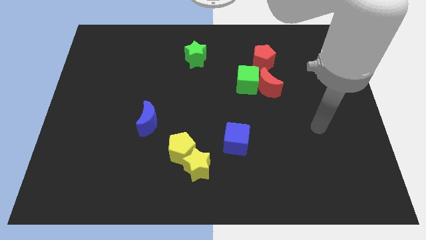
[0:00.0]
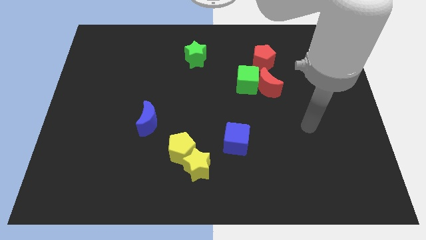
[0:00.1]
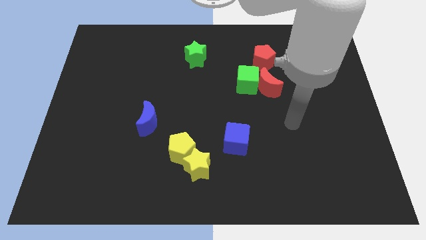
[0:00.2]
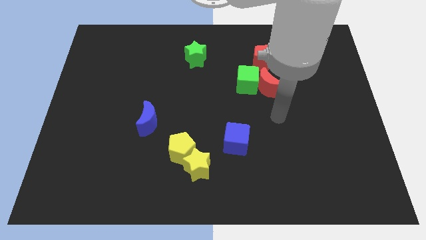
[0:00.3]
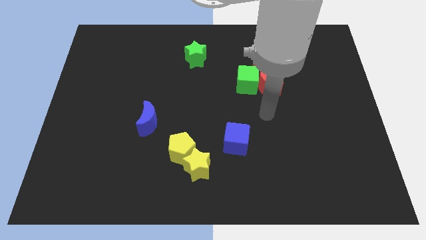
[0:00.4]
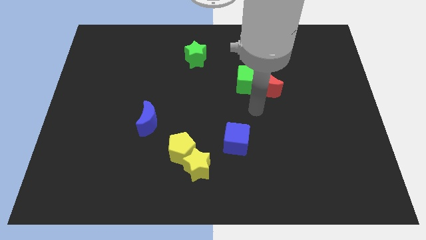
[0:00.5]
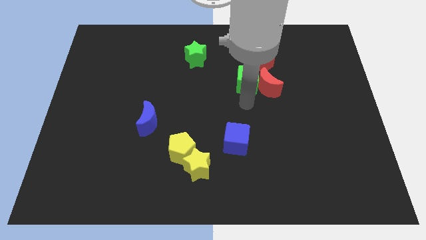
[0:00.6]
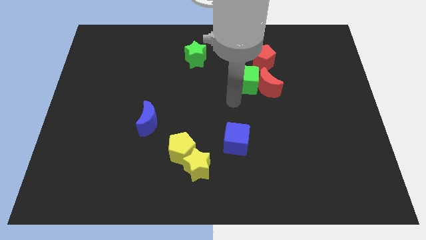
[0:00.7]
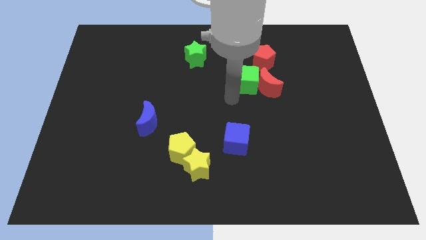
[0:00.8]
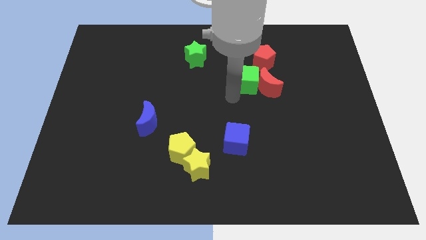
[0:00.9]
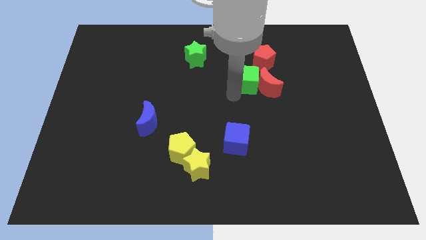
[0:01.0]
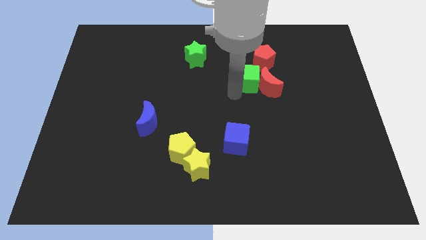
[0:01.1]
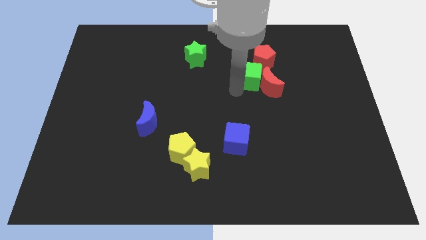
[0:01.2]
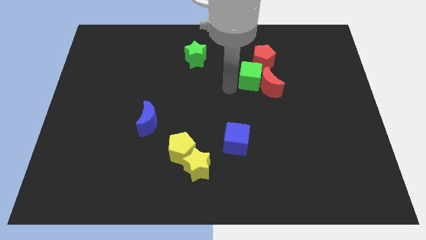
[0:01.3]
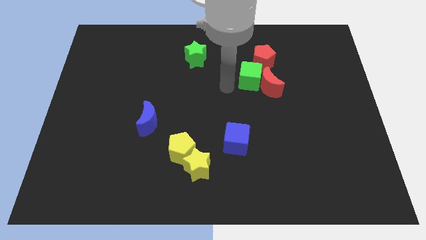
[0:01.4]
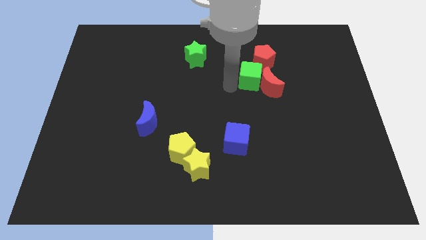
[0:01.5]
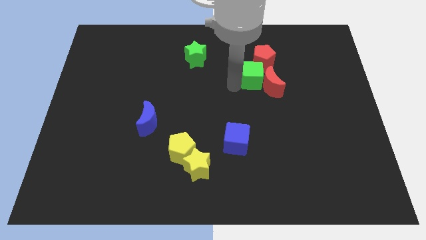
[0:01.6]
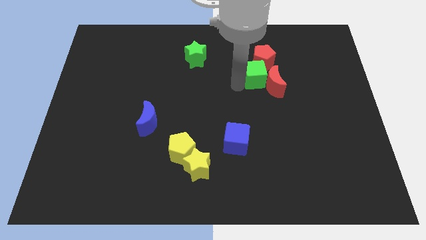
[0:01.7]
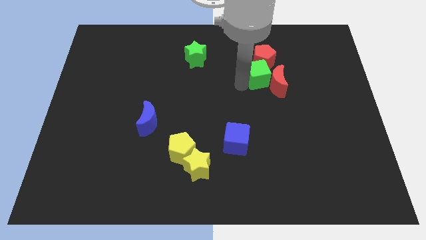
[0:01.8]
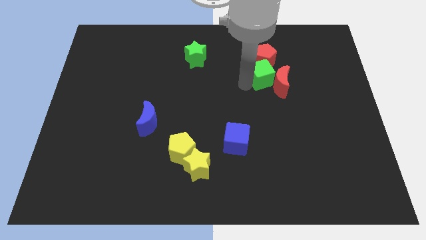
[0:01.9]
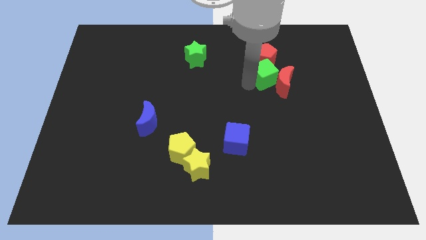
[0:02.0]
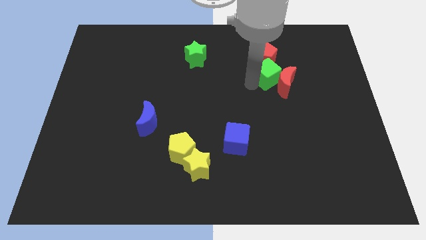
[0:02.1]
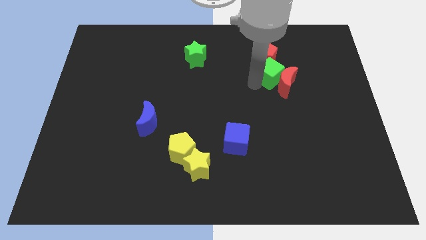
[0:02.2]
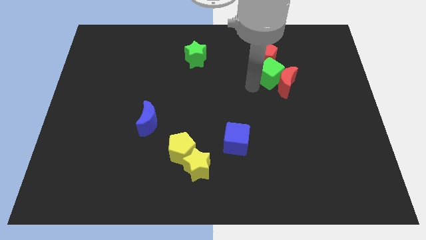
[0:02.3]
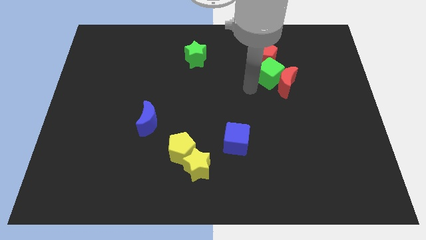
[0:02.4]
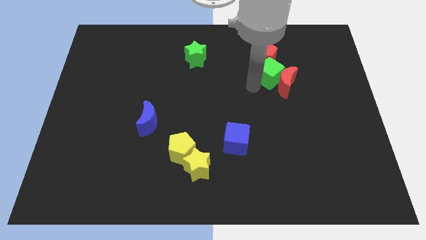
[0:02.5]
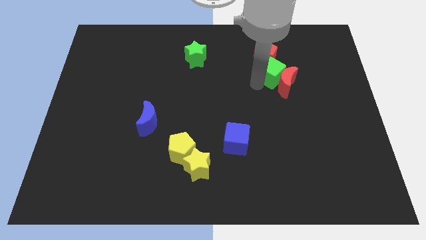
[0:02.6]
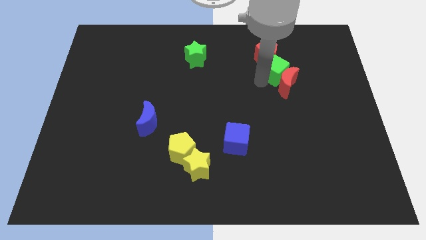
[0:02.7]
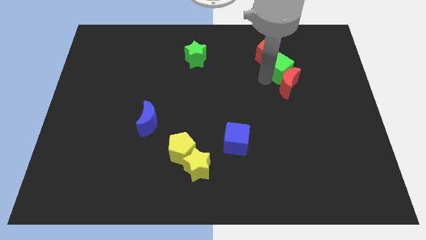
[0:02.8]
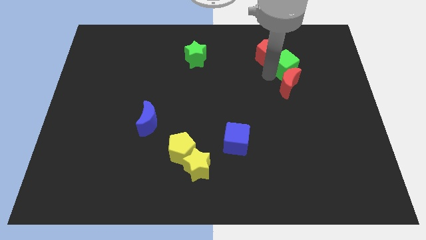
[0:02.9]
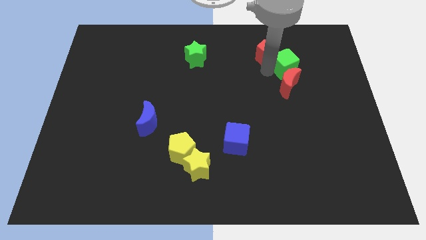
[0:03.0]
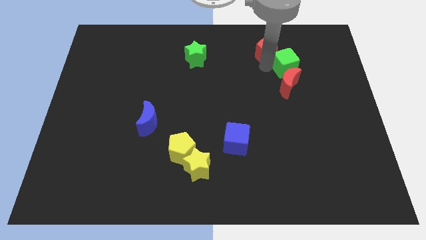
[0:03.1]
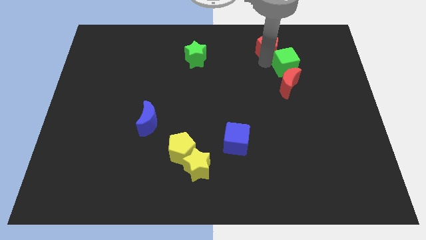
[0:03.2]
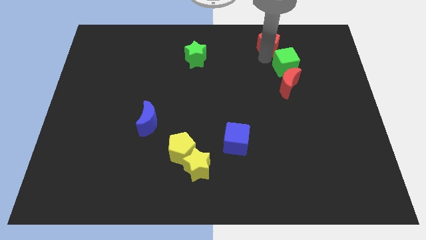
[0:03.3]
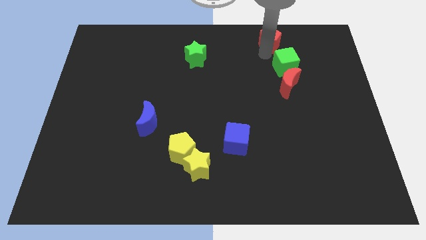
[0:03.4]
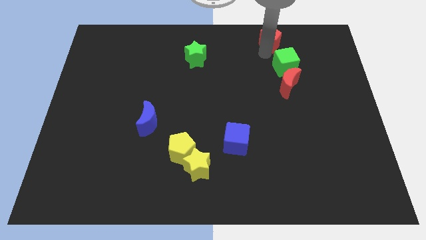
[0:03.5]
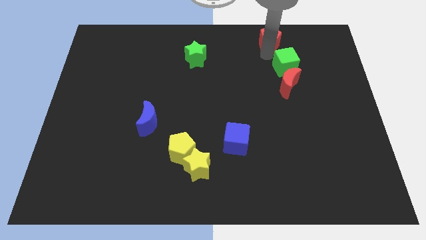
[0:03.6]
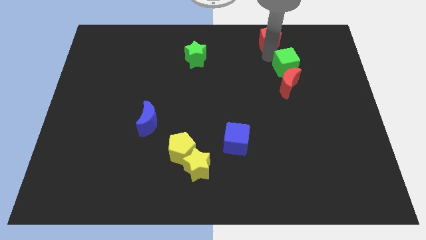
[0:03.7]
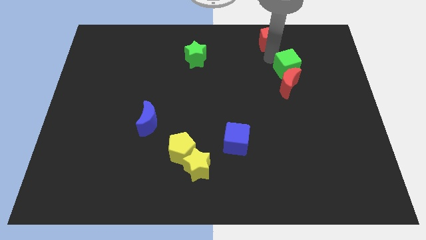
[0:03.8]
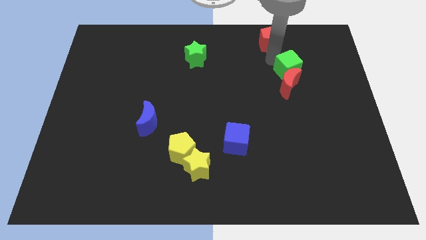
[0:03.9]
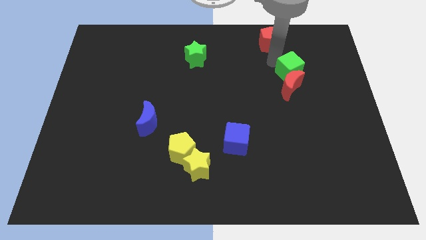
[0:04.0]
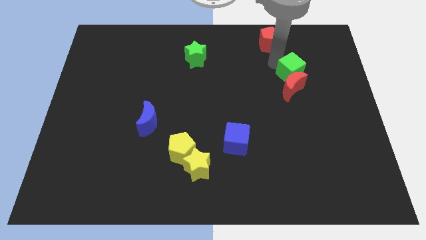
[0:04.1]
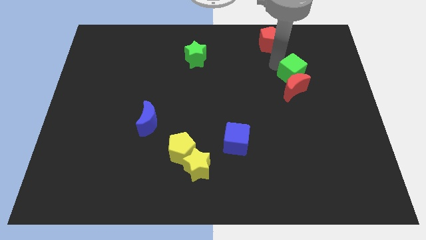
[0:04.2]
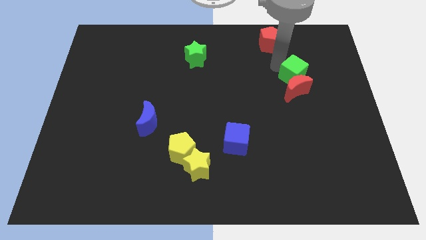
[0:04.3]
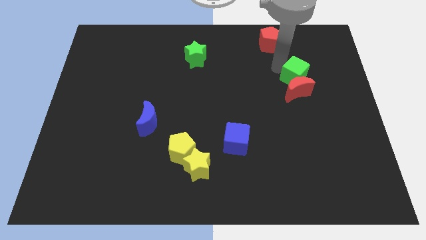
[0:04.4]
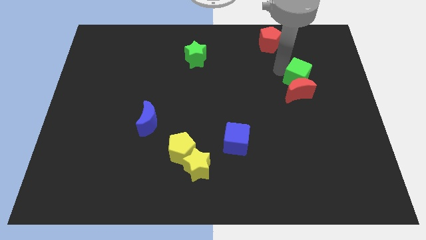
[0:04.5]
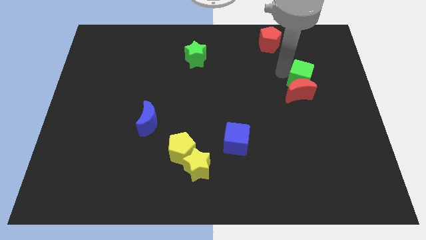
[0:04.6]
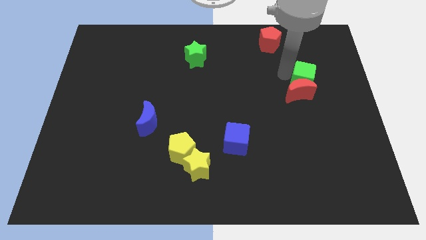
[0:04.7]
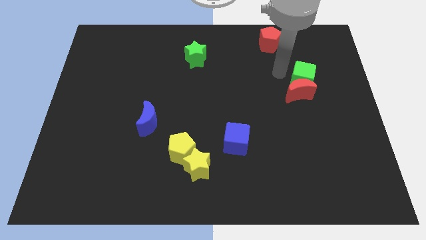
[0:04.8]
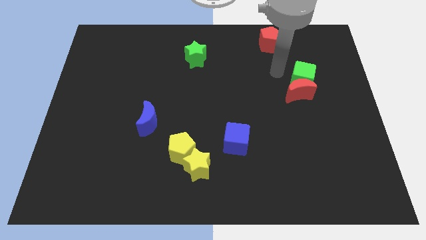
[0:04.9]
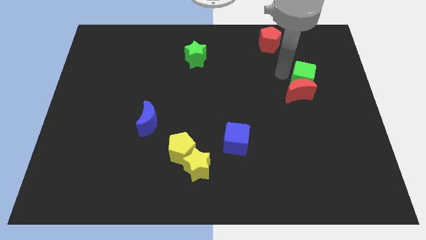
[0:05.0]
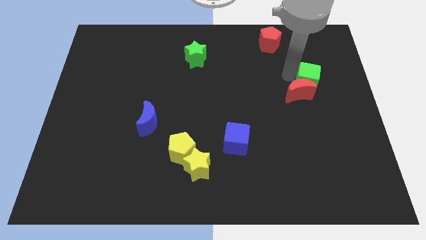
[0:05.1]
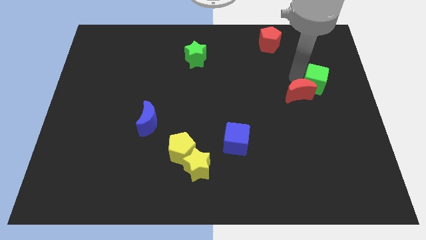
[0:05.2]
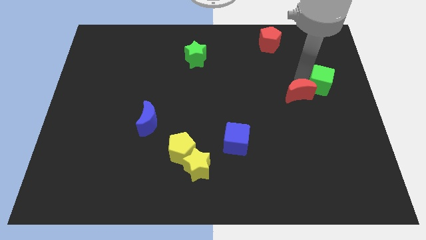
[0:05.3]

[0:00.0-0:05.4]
push the green cube to the right side of the board

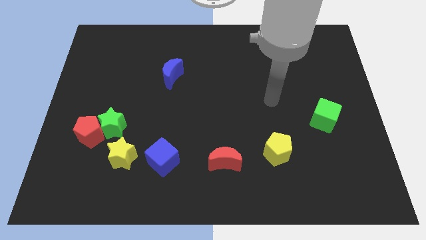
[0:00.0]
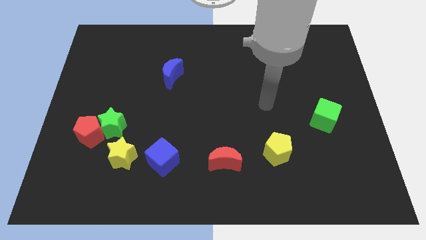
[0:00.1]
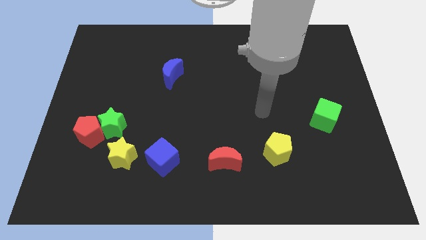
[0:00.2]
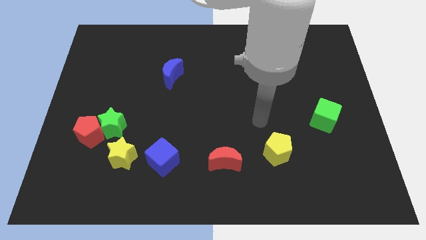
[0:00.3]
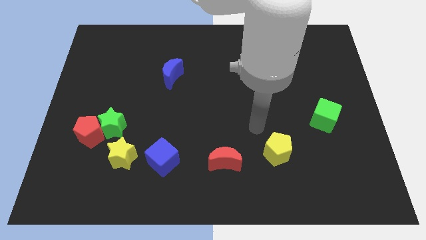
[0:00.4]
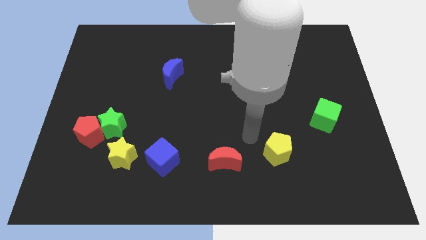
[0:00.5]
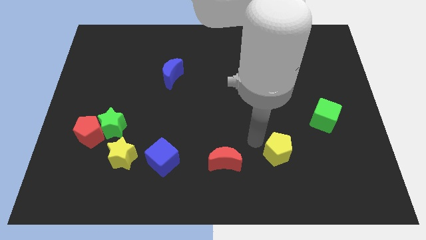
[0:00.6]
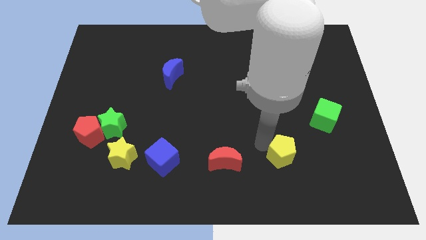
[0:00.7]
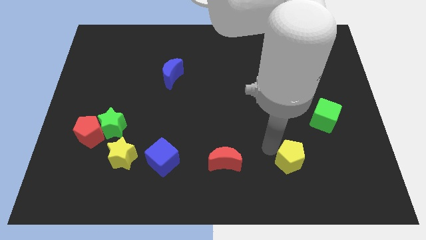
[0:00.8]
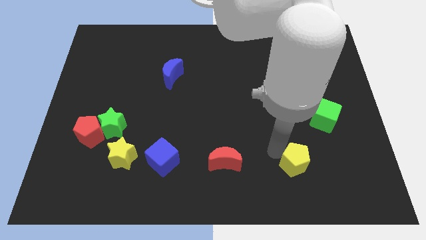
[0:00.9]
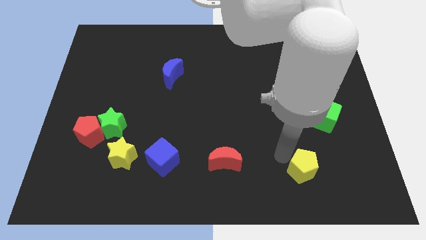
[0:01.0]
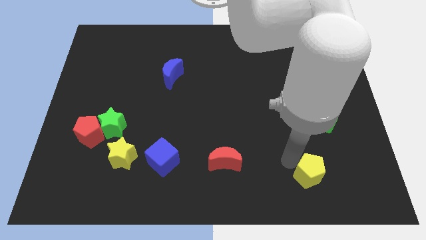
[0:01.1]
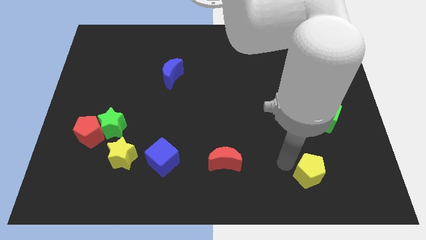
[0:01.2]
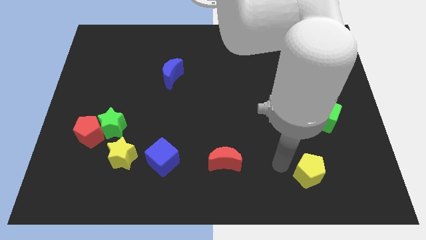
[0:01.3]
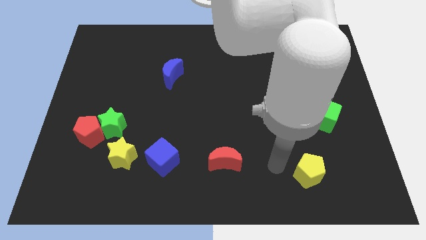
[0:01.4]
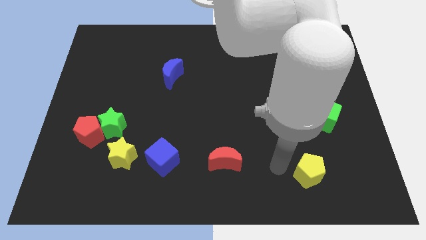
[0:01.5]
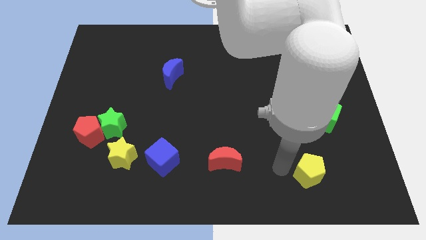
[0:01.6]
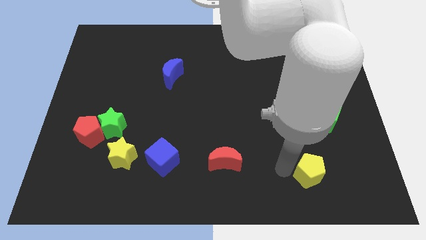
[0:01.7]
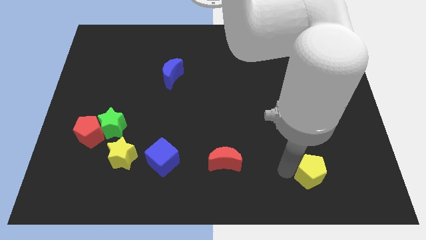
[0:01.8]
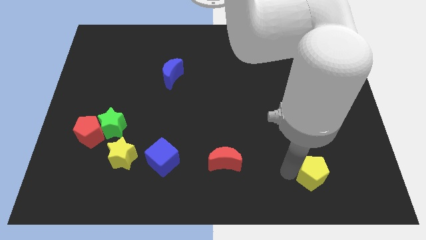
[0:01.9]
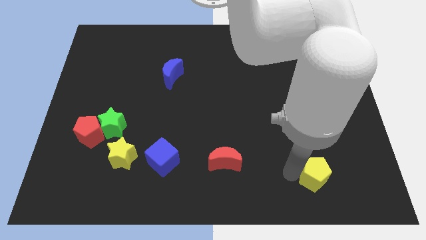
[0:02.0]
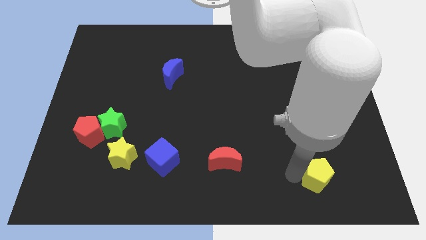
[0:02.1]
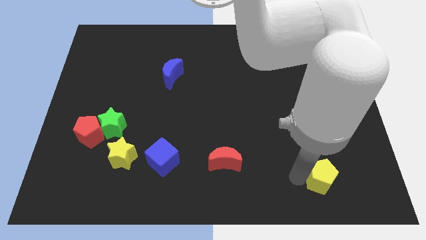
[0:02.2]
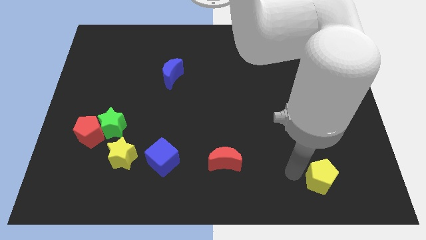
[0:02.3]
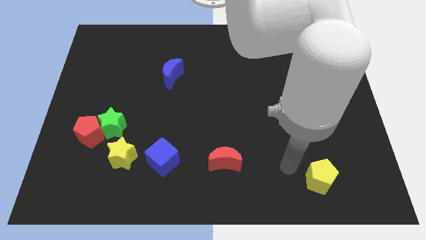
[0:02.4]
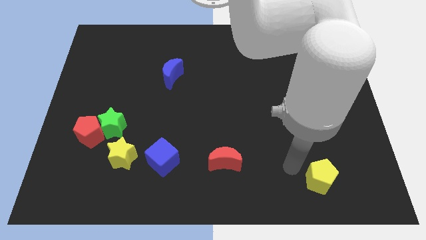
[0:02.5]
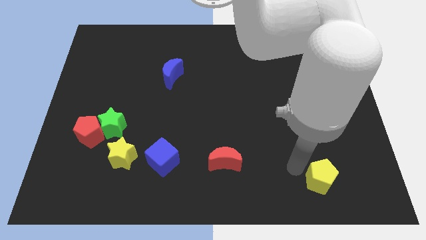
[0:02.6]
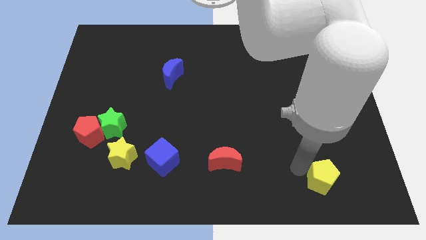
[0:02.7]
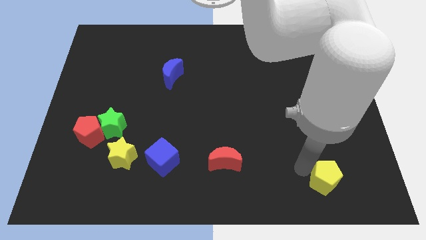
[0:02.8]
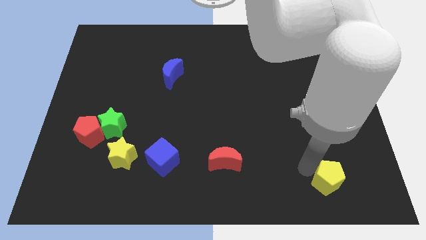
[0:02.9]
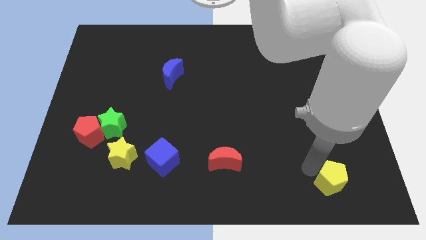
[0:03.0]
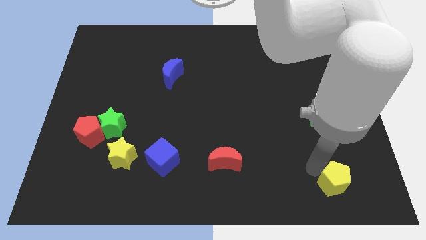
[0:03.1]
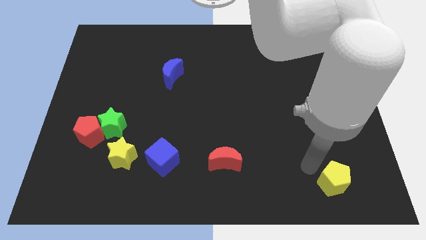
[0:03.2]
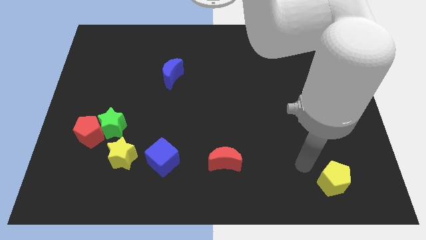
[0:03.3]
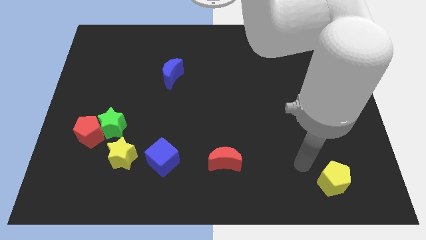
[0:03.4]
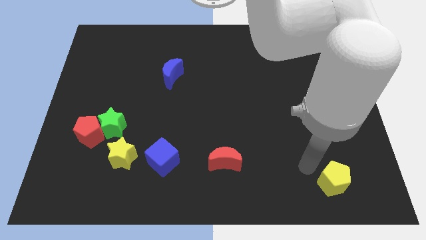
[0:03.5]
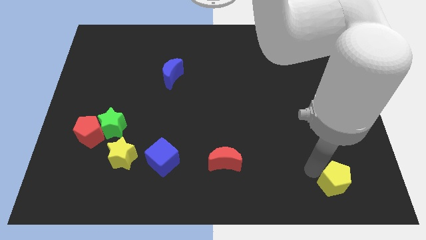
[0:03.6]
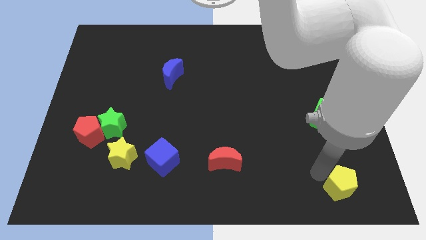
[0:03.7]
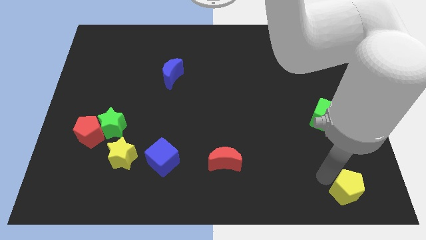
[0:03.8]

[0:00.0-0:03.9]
move the yellow pentagon to the lower right corner
